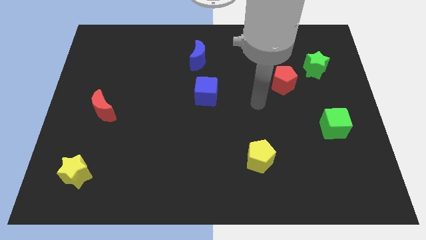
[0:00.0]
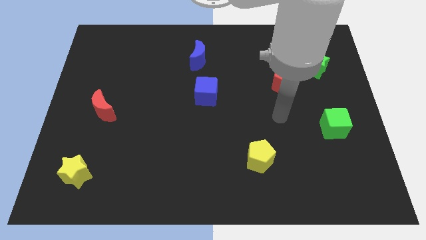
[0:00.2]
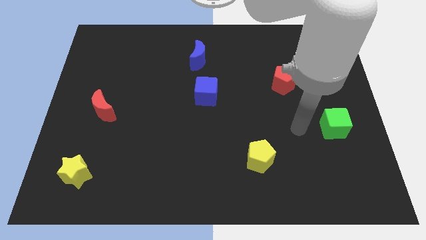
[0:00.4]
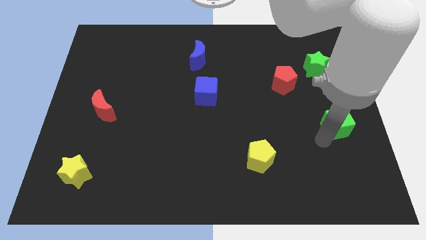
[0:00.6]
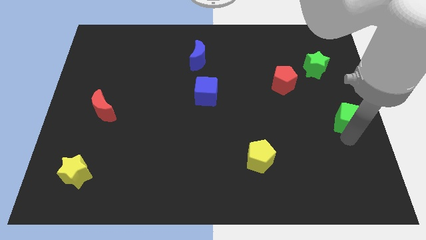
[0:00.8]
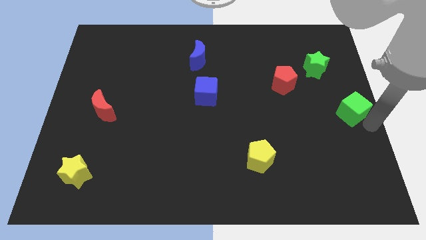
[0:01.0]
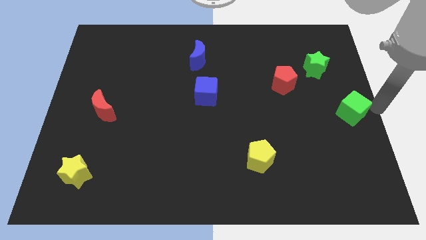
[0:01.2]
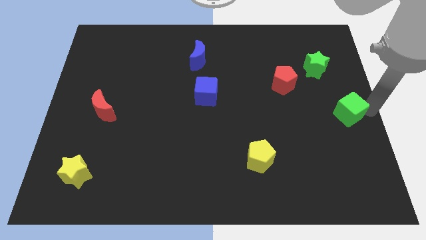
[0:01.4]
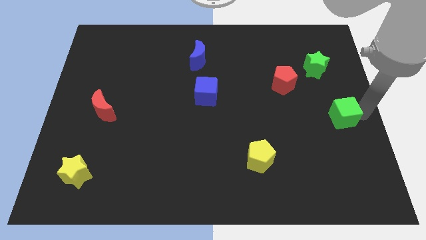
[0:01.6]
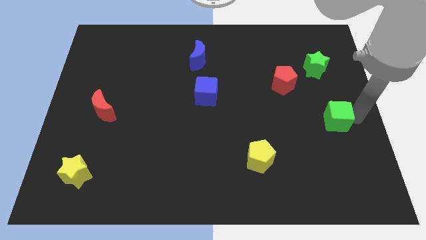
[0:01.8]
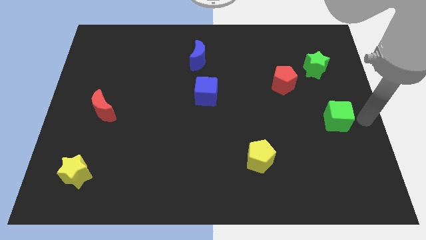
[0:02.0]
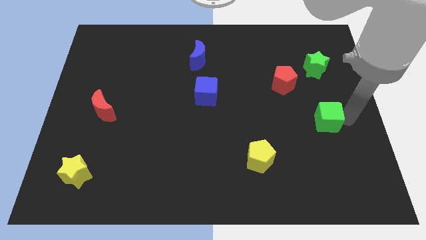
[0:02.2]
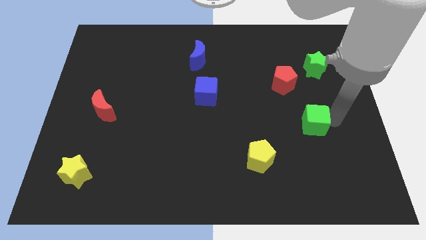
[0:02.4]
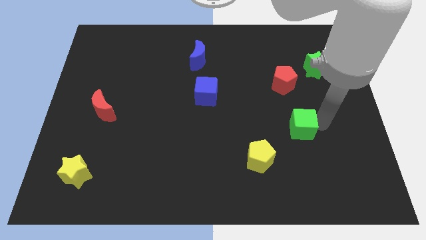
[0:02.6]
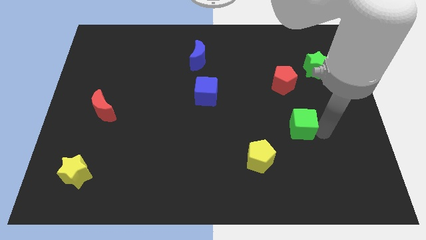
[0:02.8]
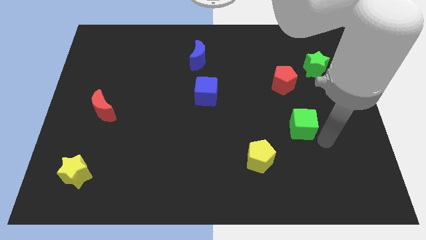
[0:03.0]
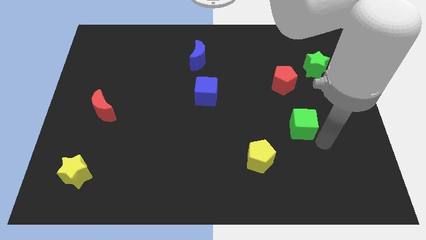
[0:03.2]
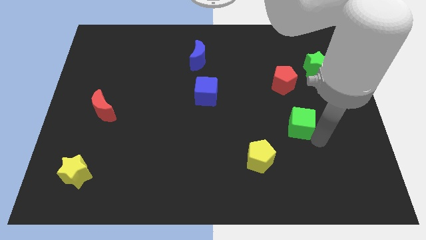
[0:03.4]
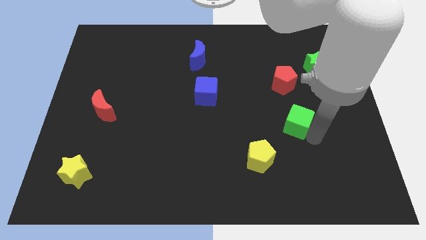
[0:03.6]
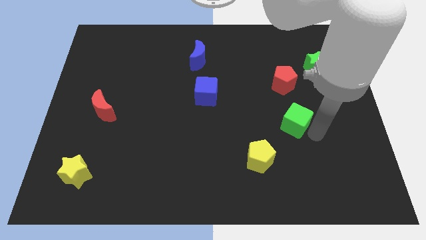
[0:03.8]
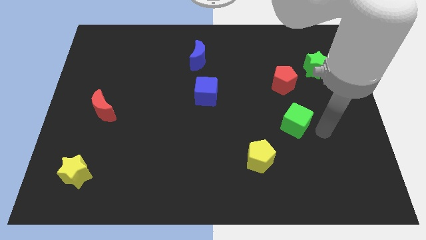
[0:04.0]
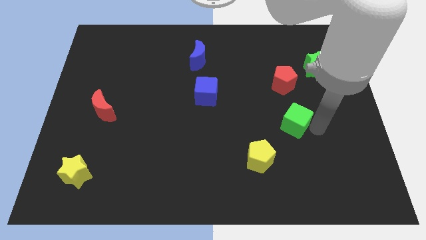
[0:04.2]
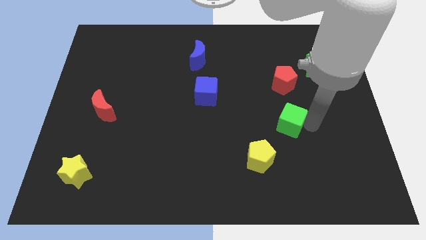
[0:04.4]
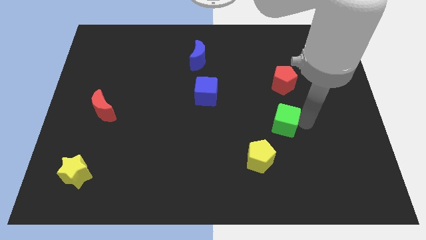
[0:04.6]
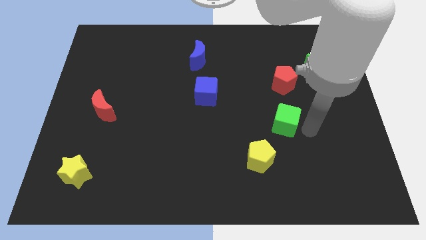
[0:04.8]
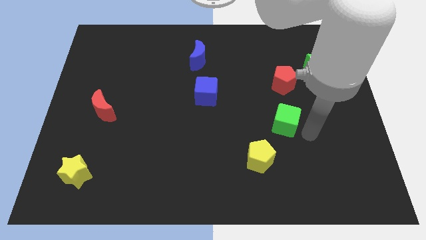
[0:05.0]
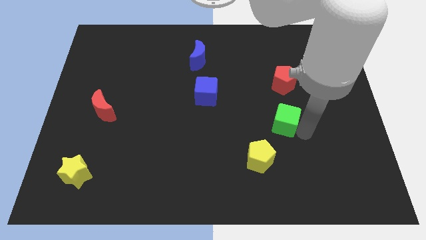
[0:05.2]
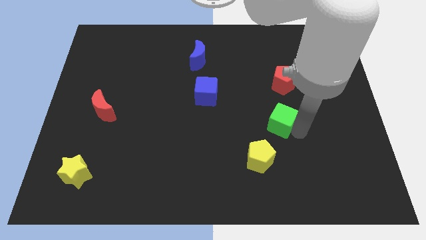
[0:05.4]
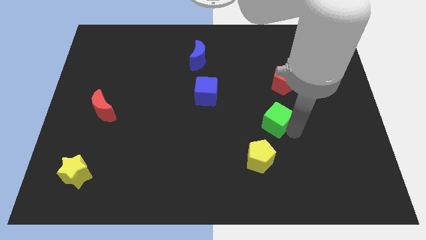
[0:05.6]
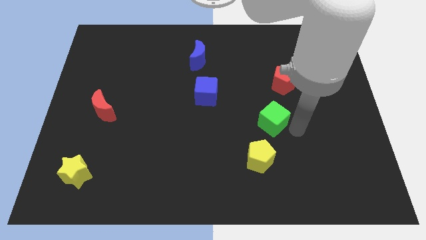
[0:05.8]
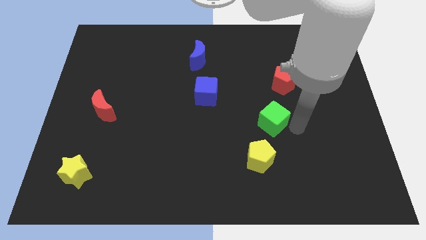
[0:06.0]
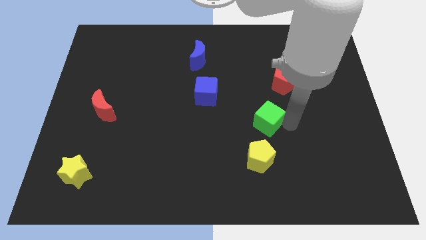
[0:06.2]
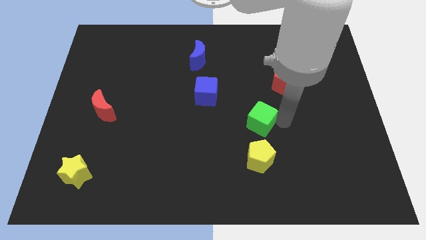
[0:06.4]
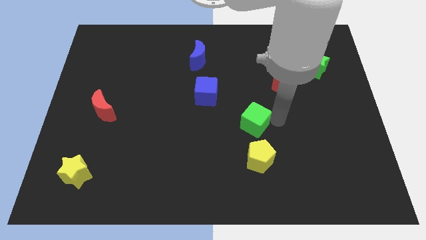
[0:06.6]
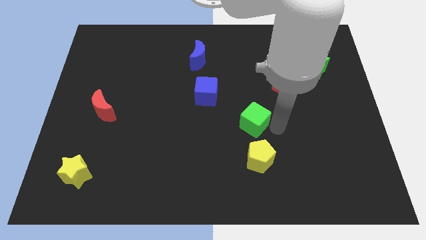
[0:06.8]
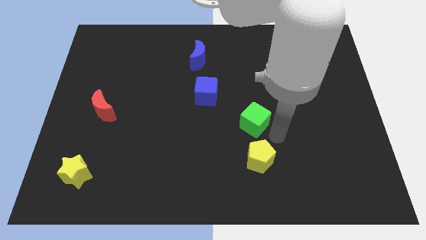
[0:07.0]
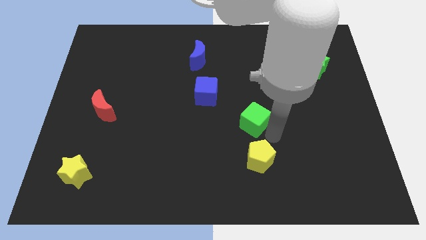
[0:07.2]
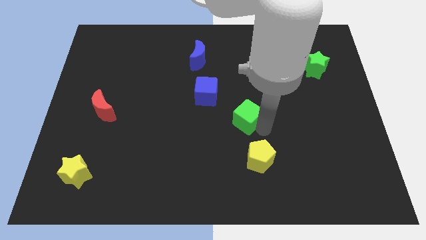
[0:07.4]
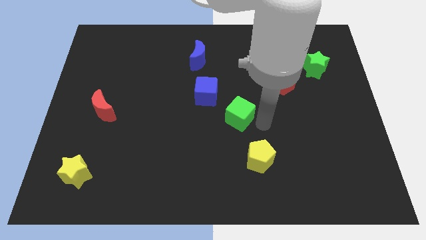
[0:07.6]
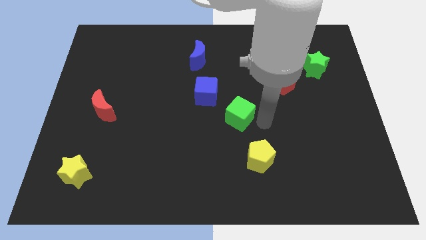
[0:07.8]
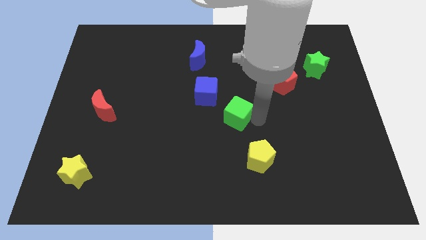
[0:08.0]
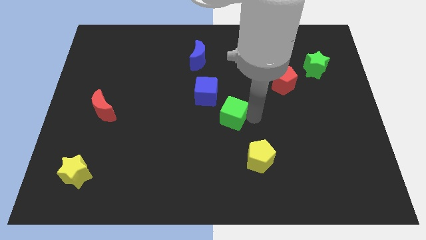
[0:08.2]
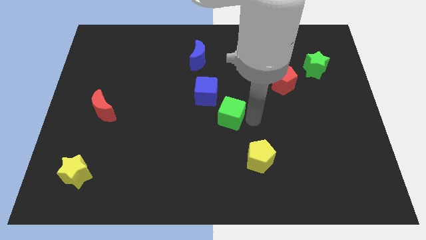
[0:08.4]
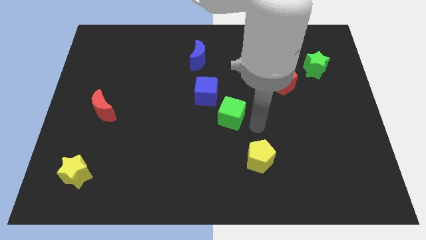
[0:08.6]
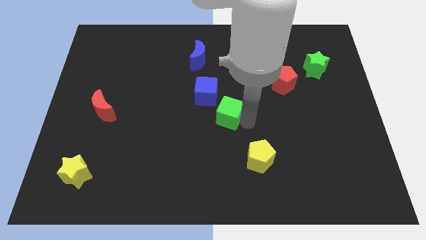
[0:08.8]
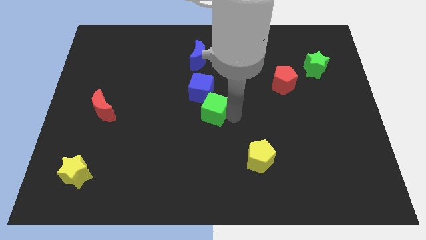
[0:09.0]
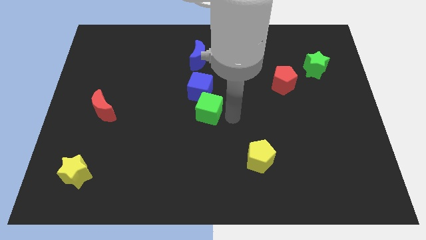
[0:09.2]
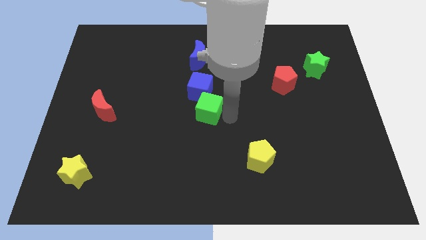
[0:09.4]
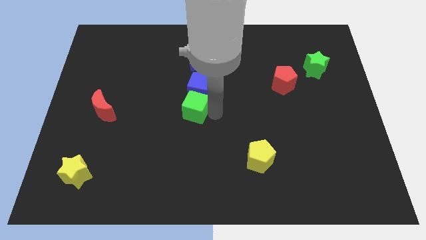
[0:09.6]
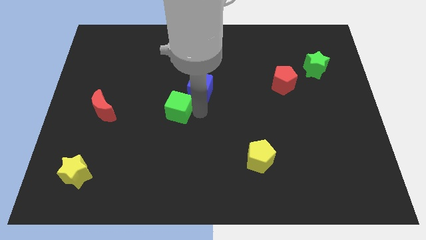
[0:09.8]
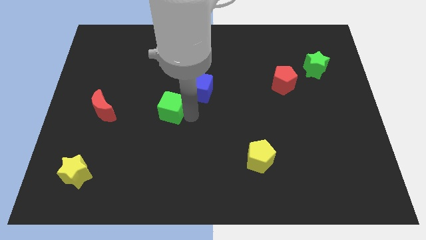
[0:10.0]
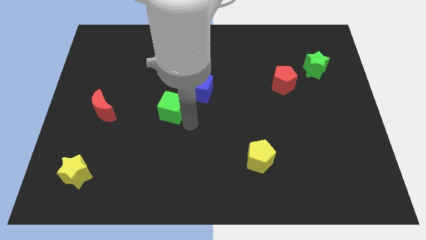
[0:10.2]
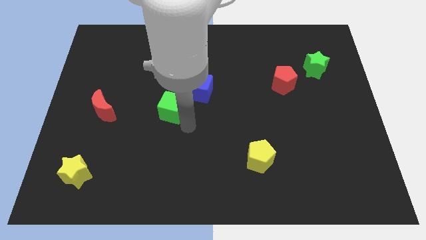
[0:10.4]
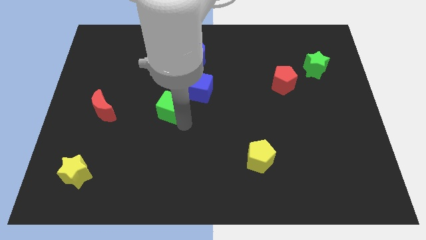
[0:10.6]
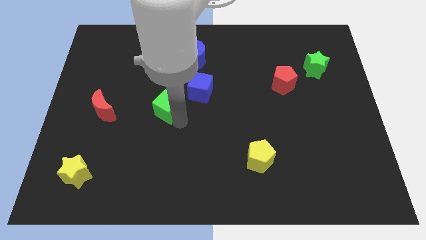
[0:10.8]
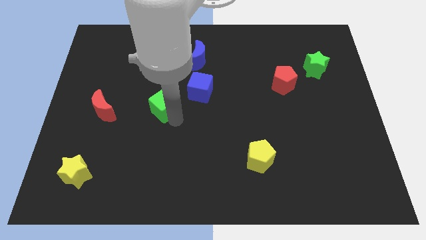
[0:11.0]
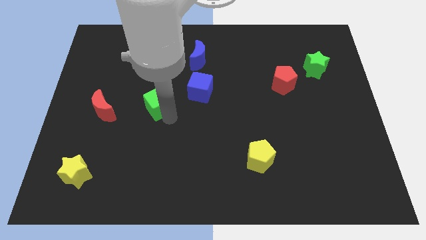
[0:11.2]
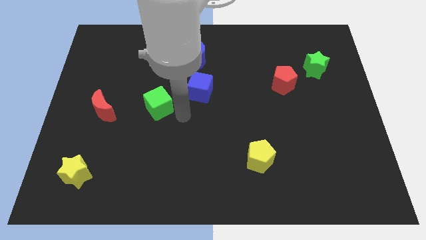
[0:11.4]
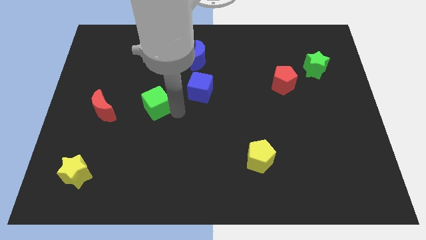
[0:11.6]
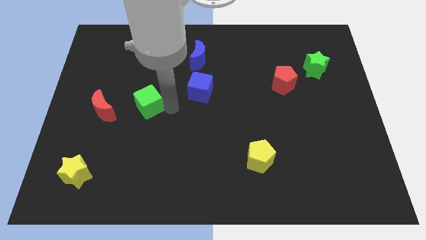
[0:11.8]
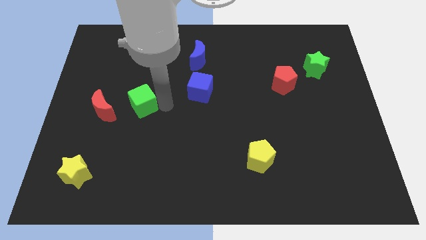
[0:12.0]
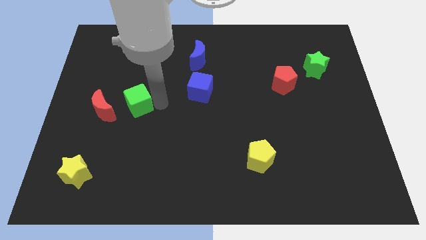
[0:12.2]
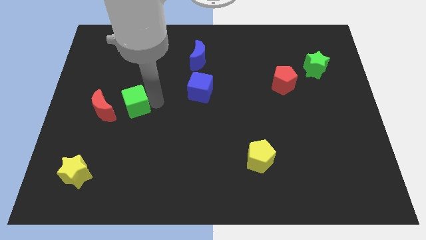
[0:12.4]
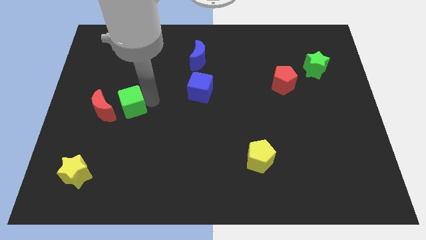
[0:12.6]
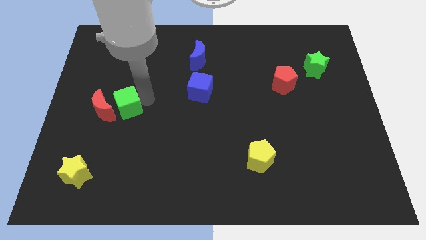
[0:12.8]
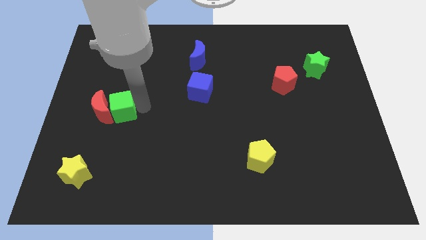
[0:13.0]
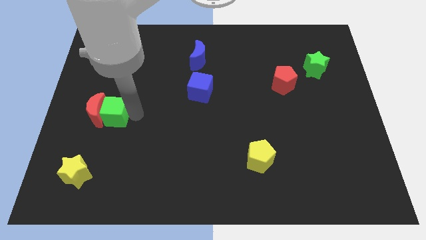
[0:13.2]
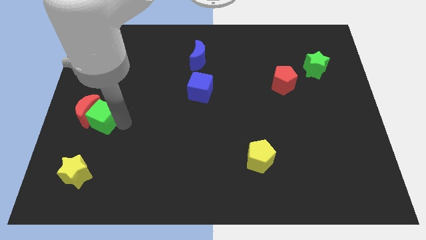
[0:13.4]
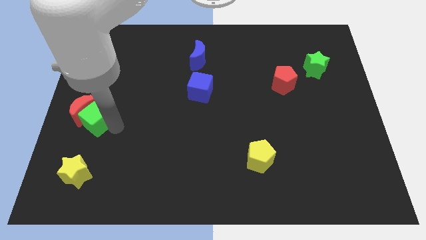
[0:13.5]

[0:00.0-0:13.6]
slide the green cube to the center left
